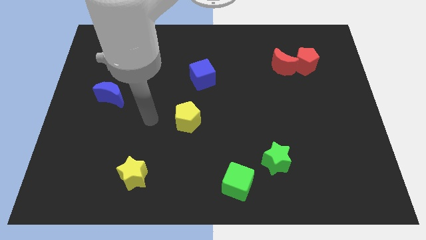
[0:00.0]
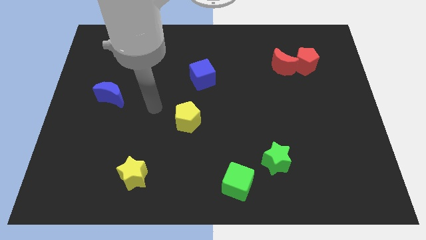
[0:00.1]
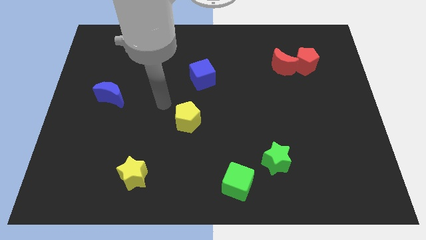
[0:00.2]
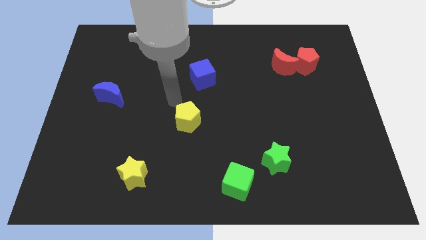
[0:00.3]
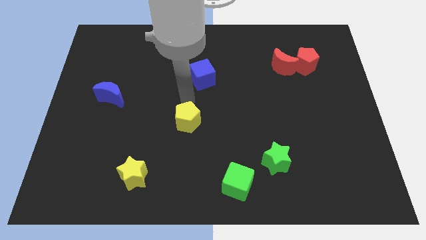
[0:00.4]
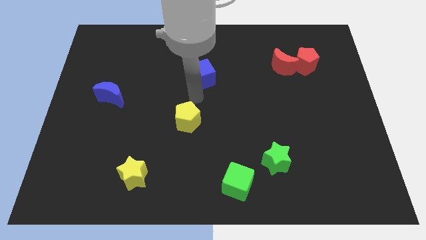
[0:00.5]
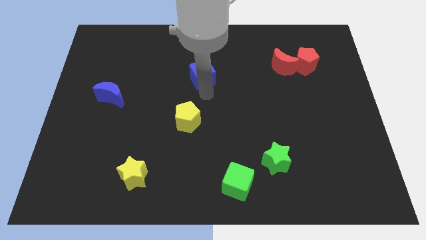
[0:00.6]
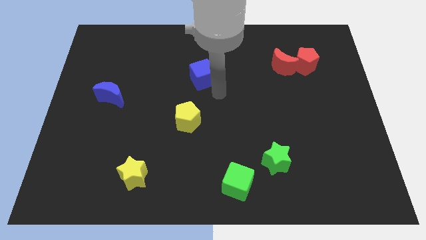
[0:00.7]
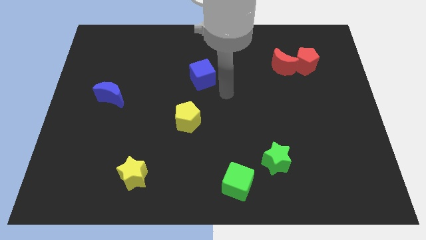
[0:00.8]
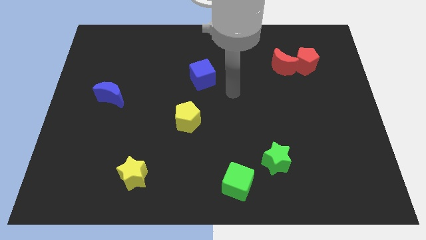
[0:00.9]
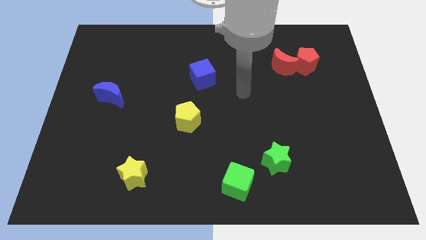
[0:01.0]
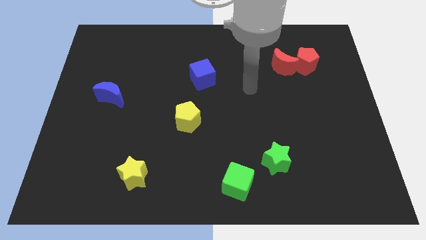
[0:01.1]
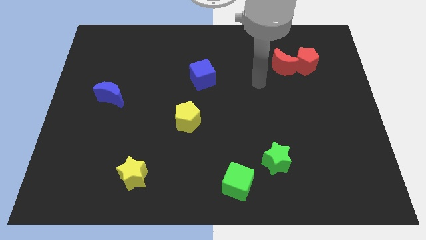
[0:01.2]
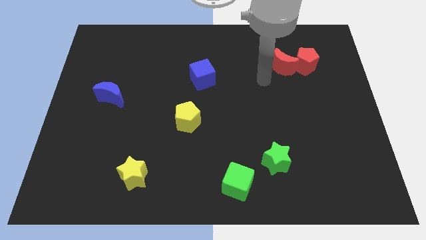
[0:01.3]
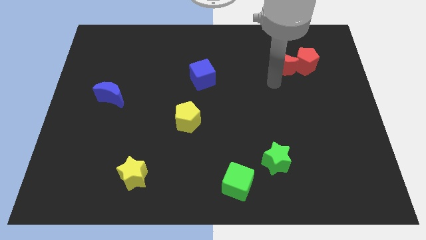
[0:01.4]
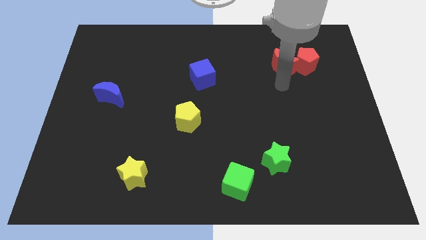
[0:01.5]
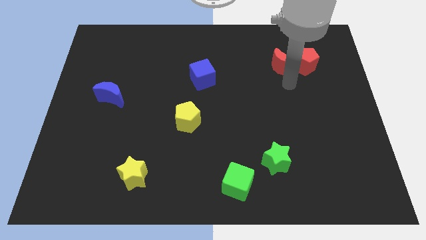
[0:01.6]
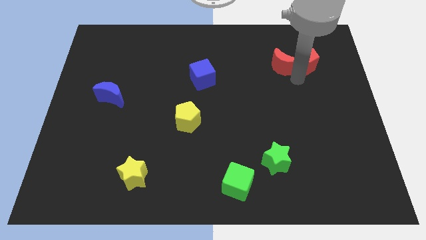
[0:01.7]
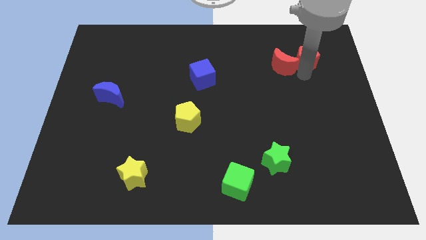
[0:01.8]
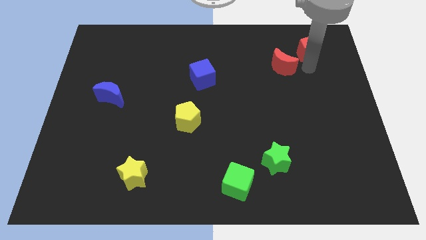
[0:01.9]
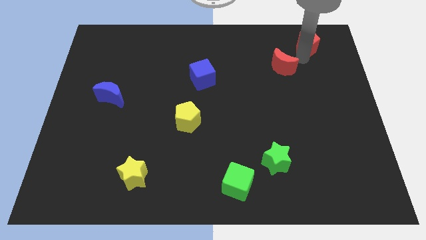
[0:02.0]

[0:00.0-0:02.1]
separate the red moon from the red pentagon

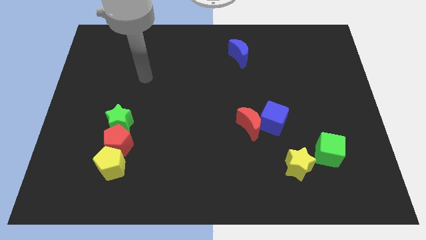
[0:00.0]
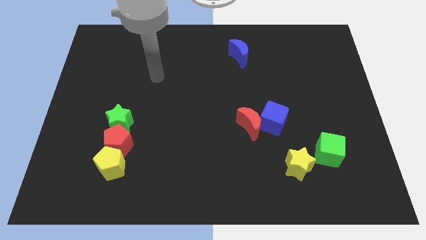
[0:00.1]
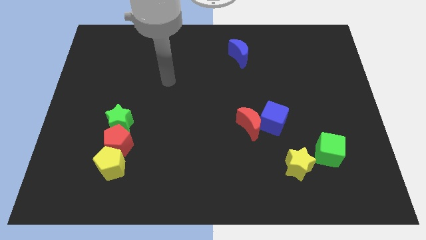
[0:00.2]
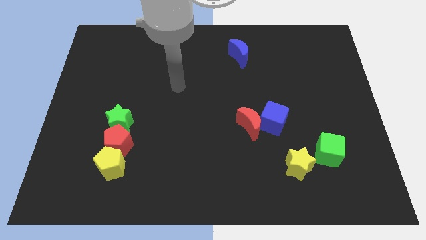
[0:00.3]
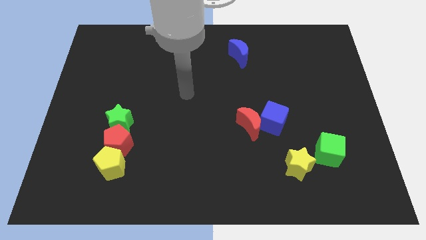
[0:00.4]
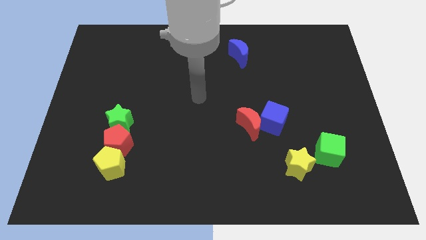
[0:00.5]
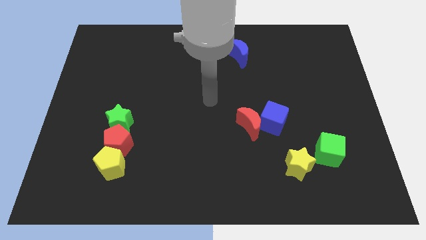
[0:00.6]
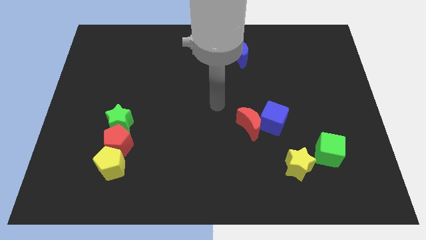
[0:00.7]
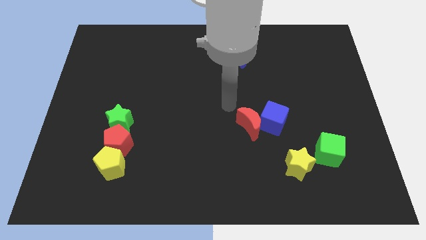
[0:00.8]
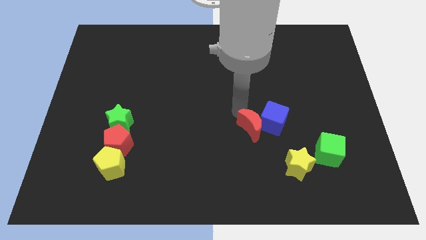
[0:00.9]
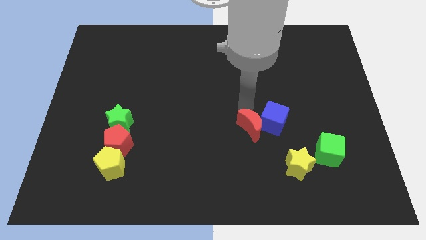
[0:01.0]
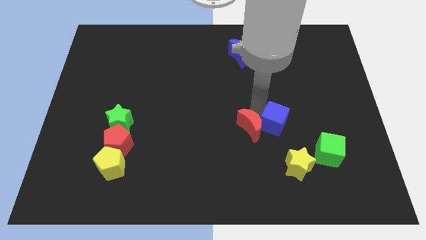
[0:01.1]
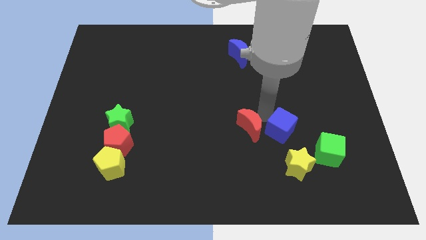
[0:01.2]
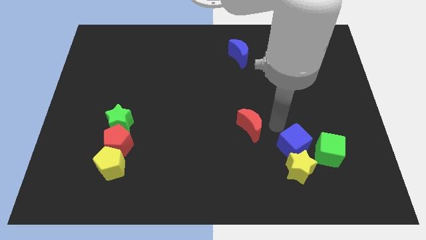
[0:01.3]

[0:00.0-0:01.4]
move the red moon away from the blue cube

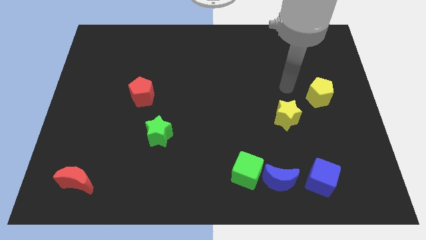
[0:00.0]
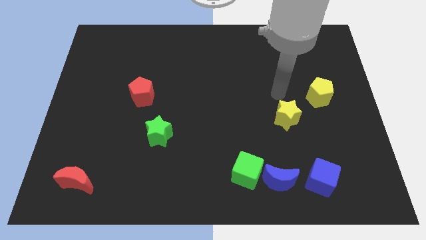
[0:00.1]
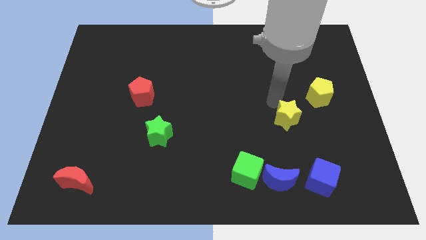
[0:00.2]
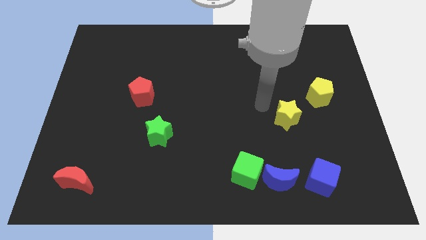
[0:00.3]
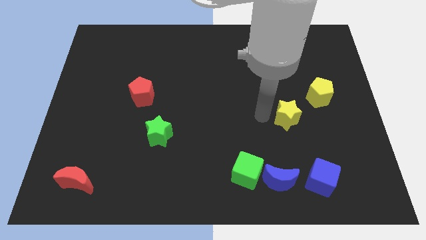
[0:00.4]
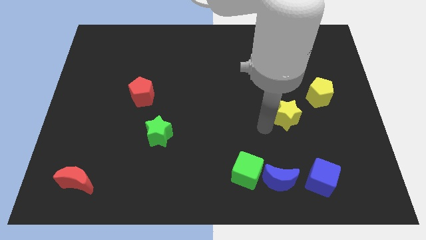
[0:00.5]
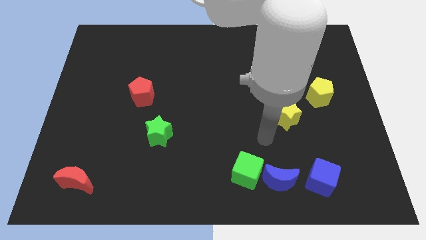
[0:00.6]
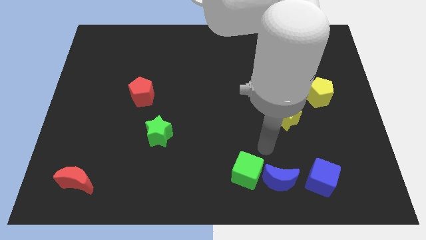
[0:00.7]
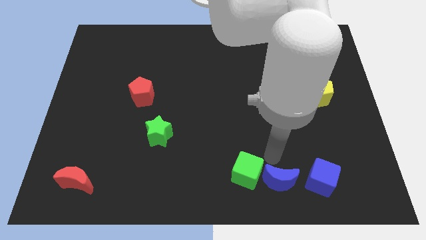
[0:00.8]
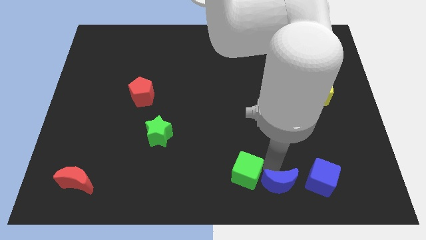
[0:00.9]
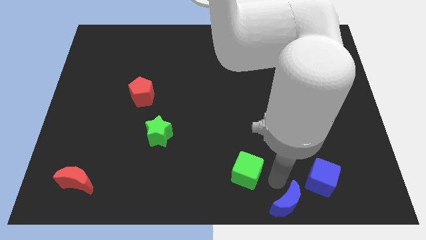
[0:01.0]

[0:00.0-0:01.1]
separate the green cube from the blue moon

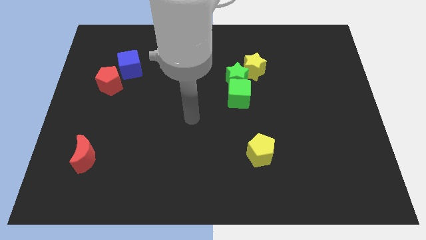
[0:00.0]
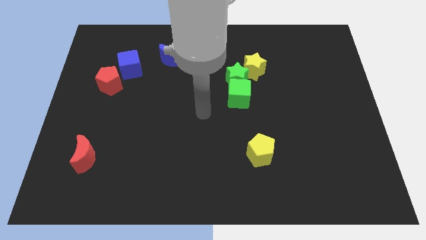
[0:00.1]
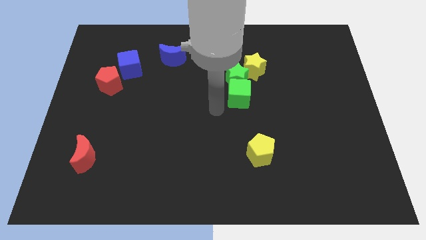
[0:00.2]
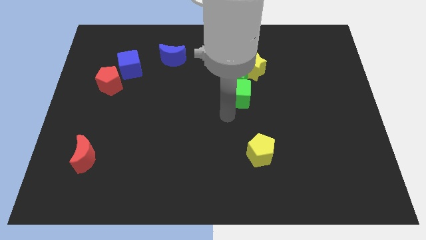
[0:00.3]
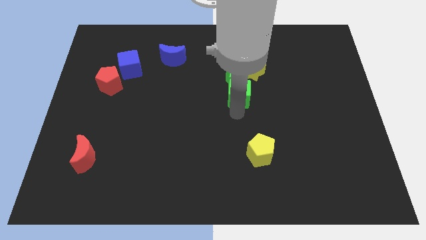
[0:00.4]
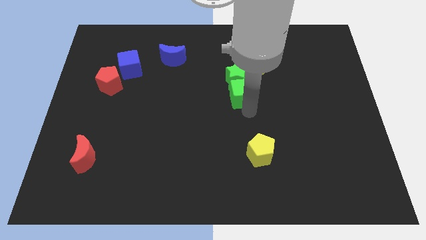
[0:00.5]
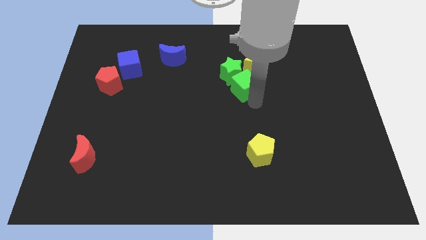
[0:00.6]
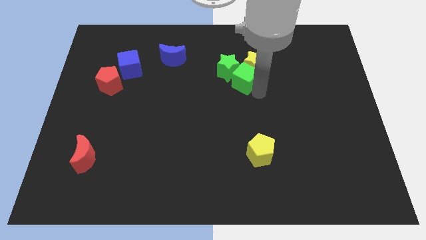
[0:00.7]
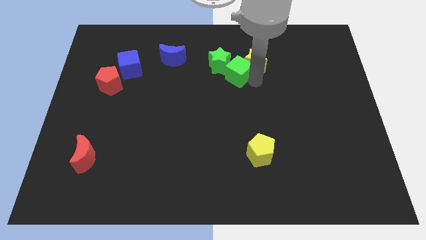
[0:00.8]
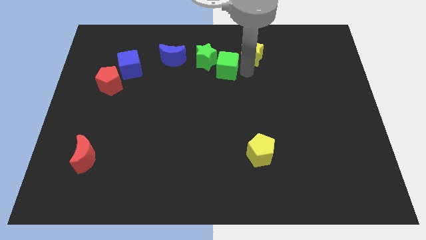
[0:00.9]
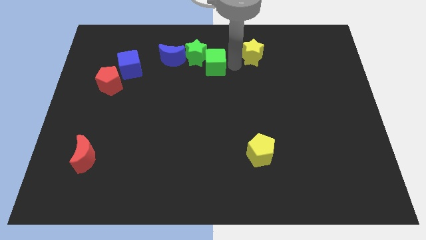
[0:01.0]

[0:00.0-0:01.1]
pull the green star apart from the green cube and yellow star

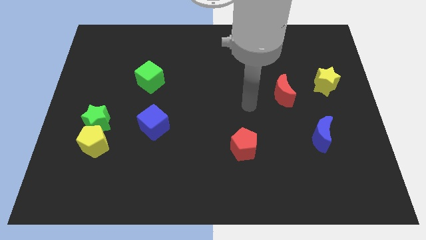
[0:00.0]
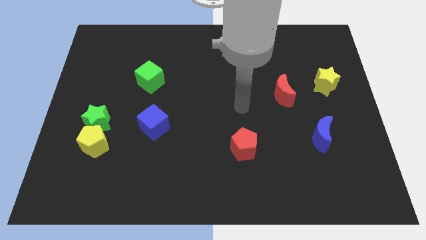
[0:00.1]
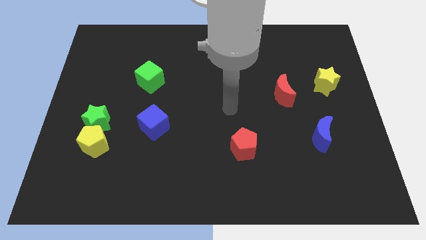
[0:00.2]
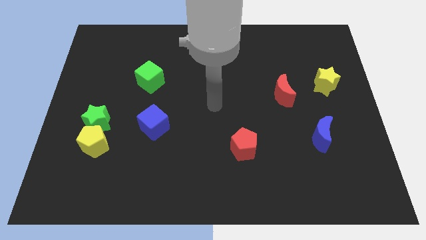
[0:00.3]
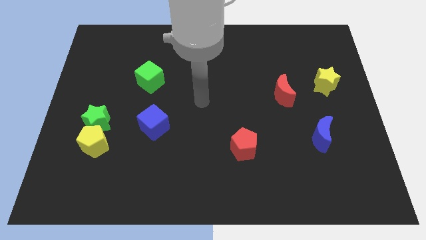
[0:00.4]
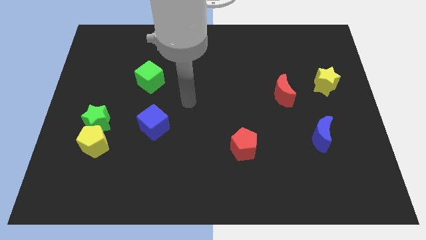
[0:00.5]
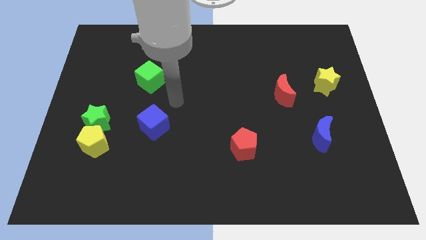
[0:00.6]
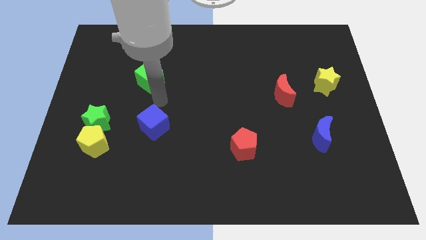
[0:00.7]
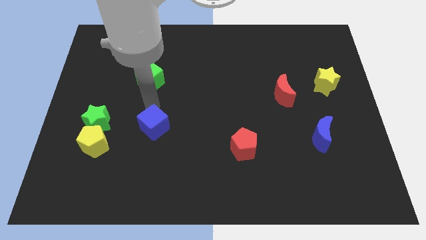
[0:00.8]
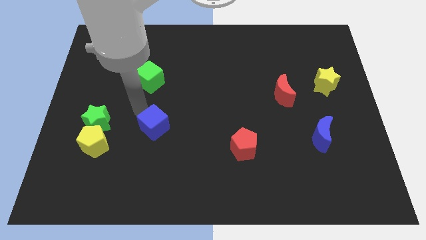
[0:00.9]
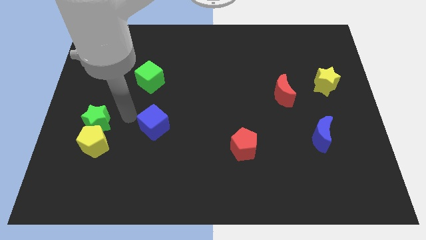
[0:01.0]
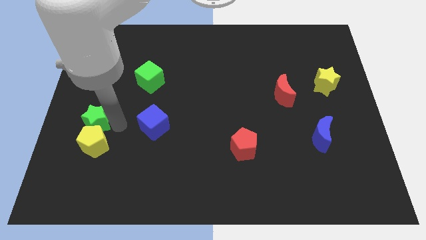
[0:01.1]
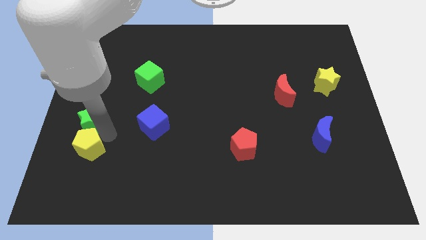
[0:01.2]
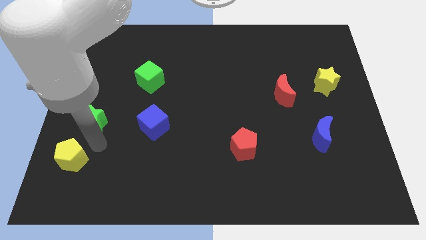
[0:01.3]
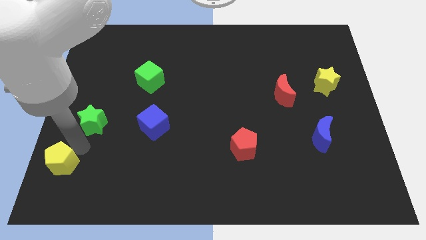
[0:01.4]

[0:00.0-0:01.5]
pull the green star apart from the yellow pentagon

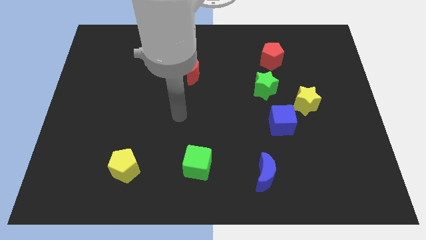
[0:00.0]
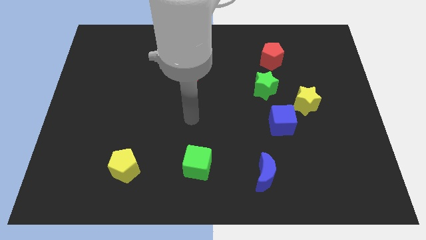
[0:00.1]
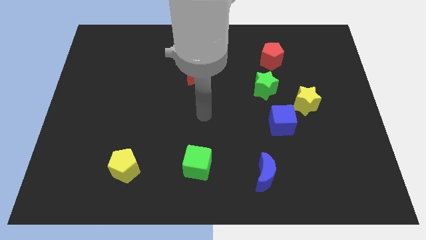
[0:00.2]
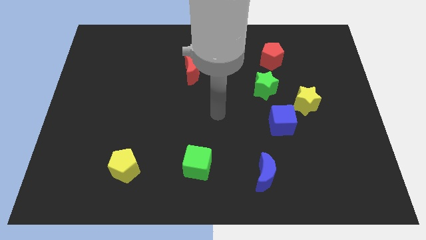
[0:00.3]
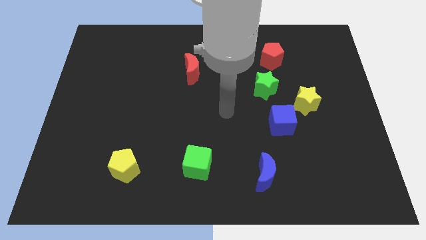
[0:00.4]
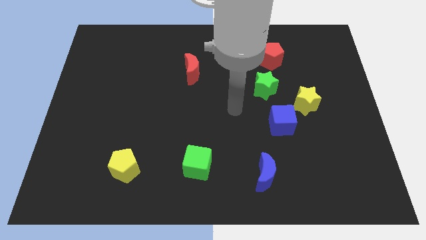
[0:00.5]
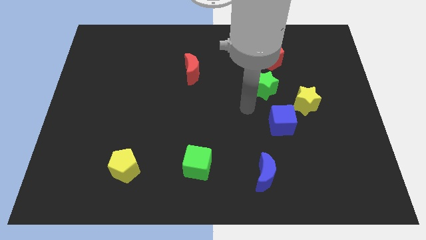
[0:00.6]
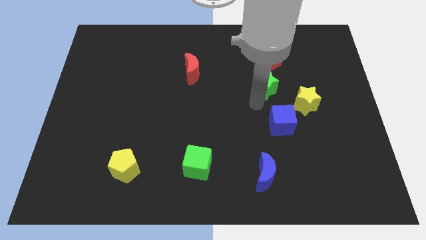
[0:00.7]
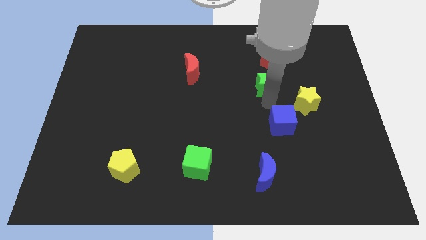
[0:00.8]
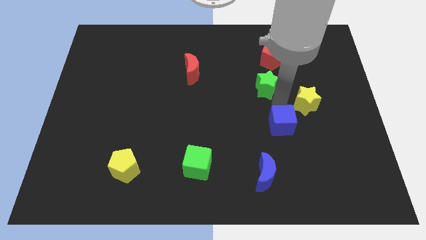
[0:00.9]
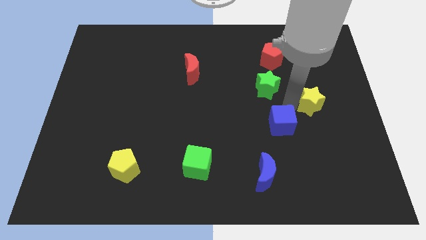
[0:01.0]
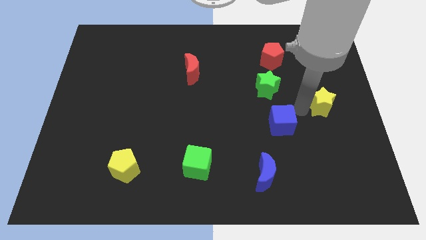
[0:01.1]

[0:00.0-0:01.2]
move the blue cube away from the yellow star

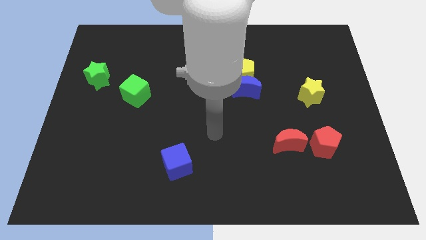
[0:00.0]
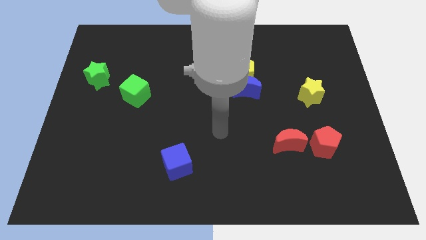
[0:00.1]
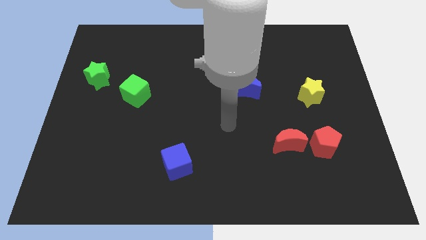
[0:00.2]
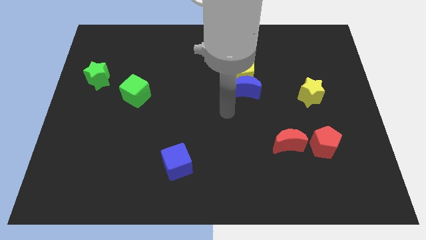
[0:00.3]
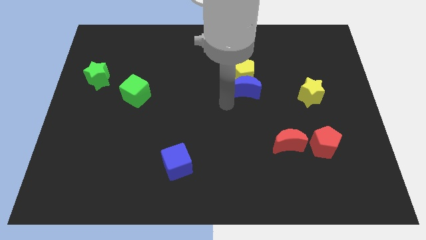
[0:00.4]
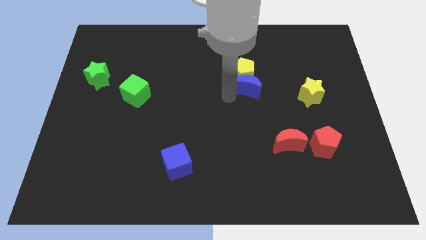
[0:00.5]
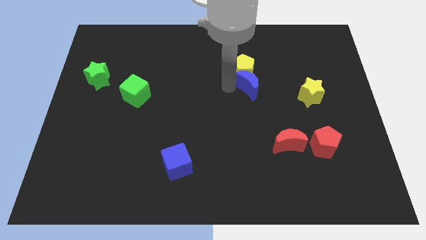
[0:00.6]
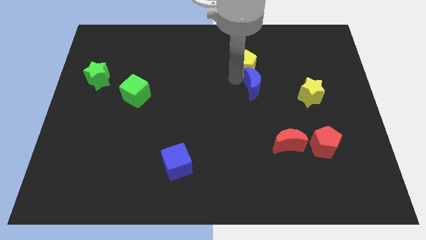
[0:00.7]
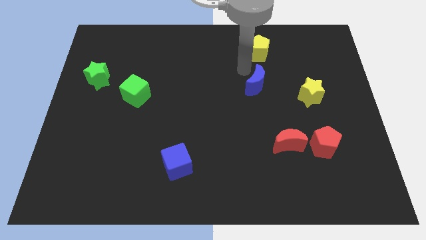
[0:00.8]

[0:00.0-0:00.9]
move the blue moon away from the yellow pentagon

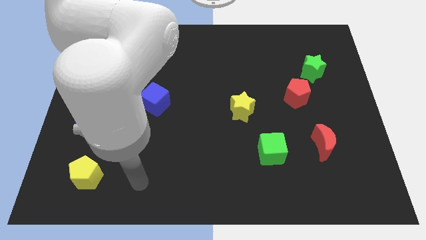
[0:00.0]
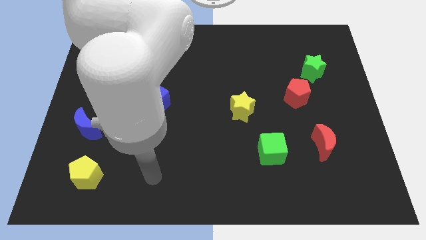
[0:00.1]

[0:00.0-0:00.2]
move the red pentagon away from the green star
